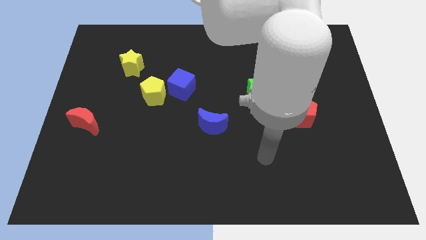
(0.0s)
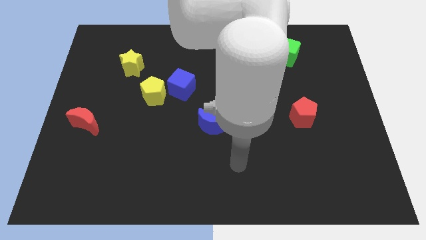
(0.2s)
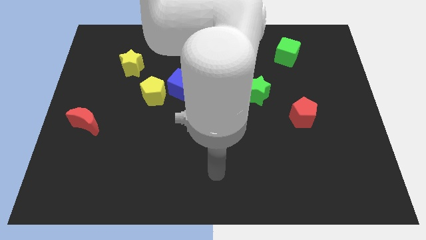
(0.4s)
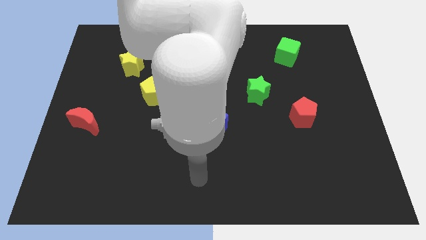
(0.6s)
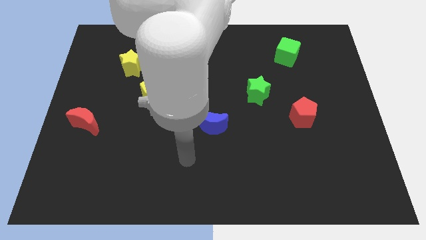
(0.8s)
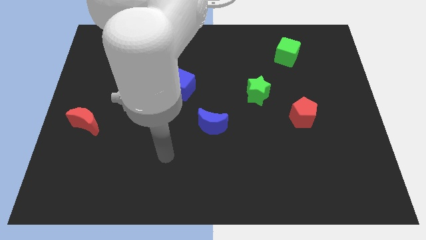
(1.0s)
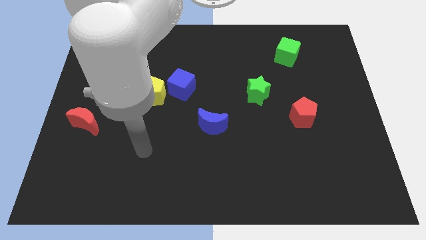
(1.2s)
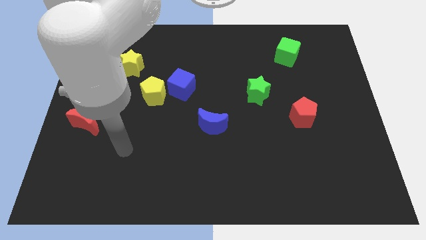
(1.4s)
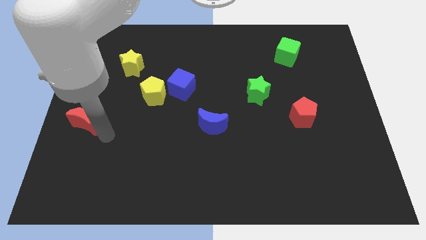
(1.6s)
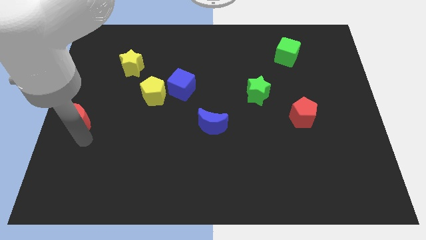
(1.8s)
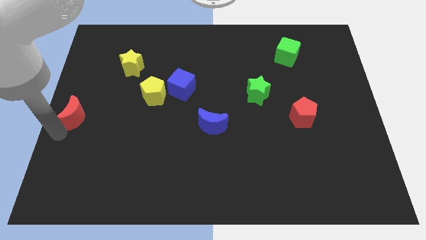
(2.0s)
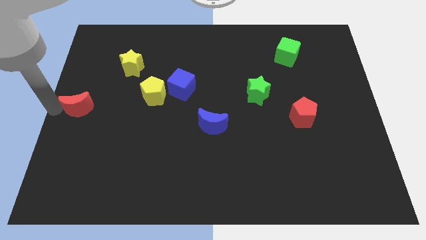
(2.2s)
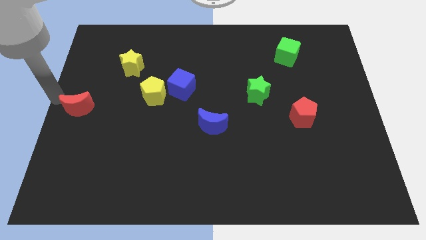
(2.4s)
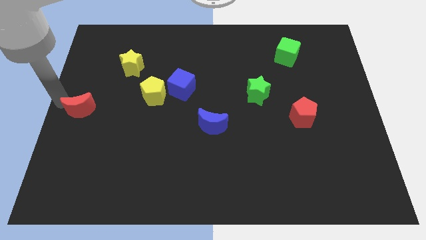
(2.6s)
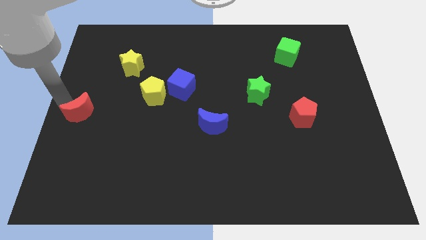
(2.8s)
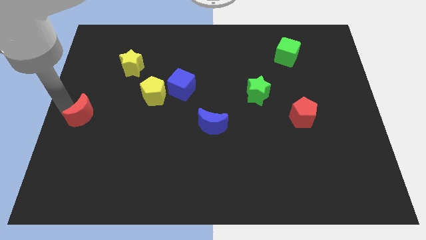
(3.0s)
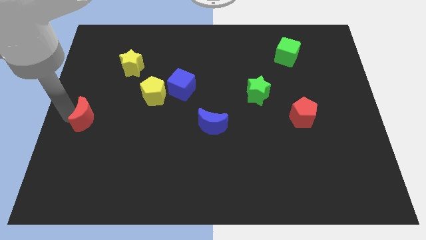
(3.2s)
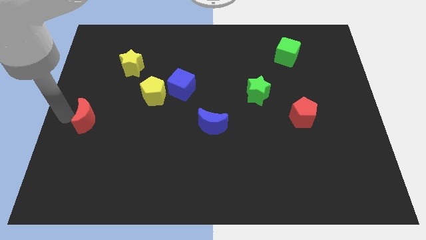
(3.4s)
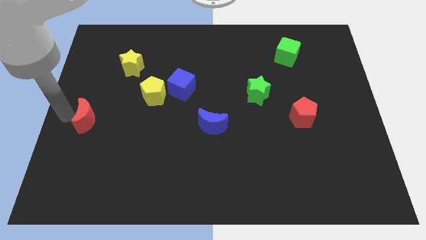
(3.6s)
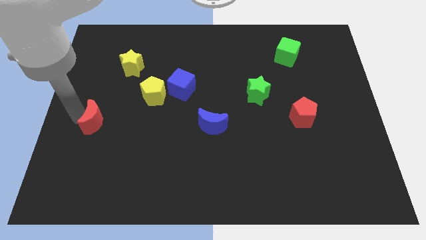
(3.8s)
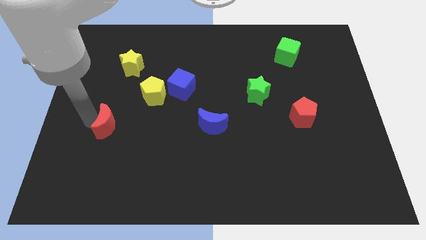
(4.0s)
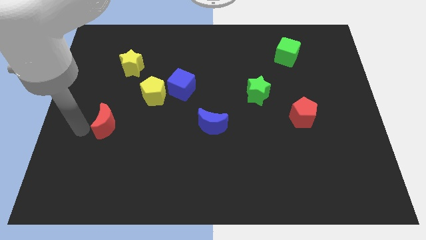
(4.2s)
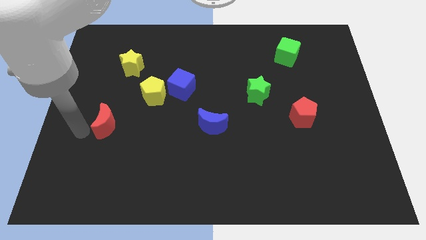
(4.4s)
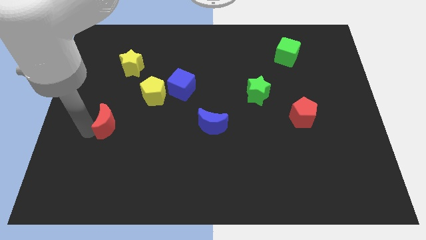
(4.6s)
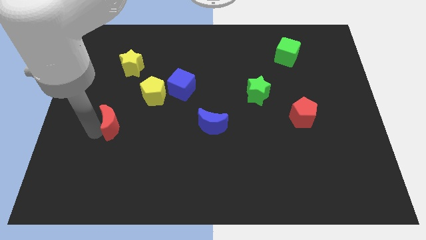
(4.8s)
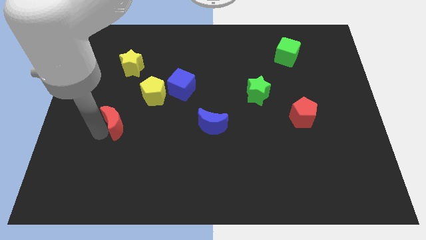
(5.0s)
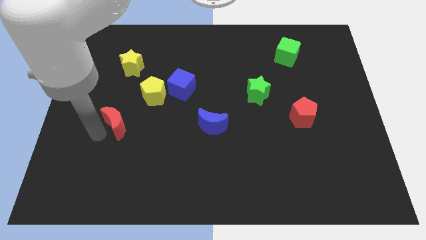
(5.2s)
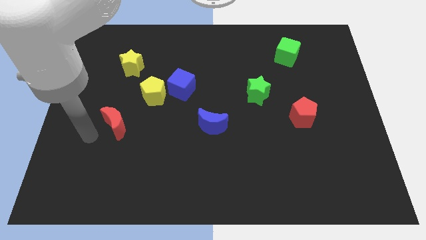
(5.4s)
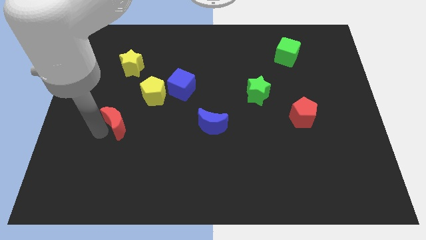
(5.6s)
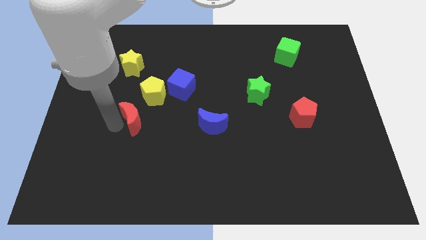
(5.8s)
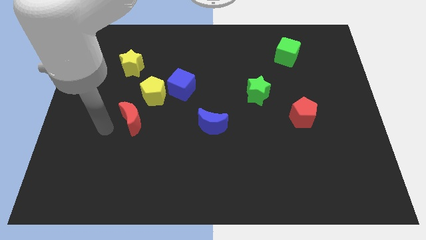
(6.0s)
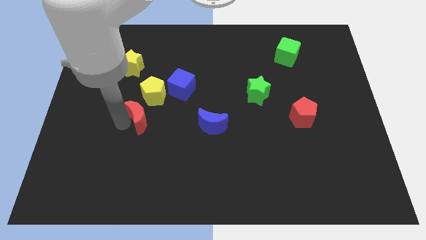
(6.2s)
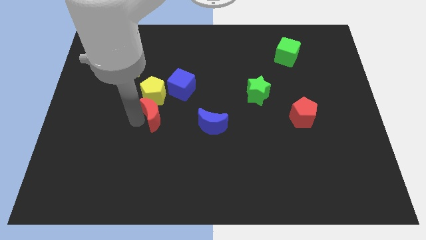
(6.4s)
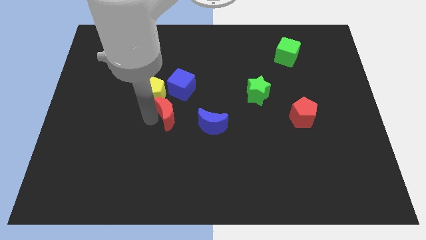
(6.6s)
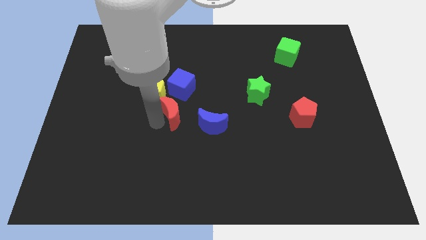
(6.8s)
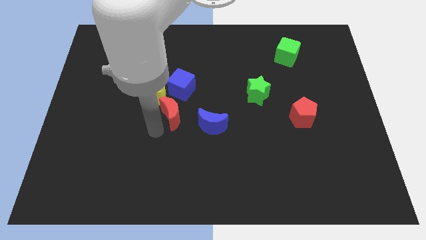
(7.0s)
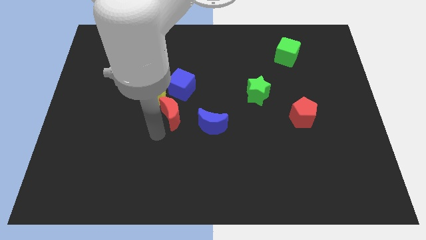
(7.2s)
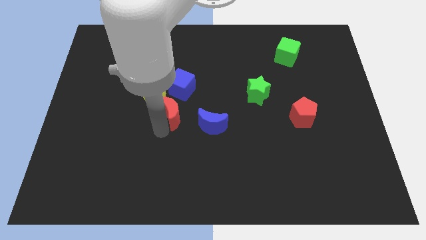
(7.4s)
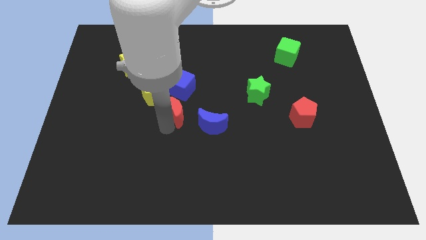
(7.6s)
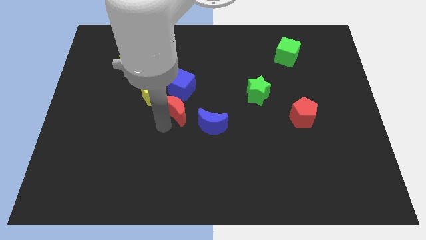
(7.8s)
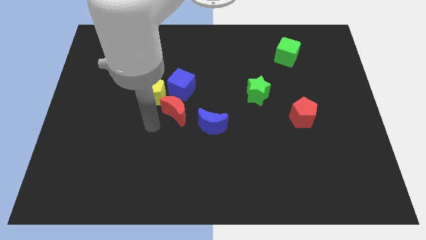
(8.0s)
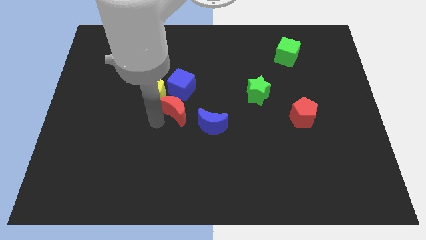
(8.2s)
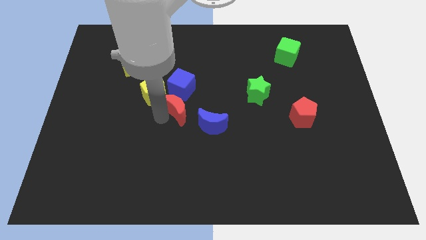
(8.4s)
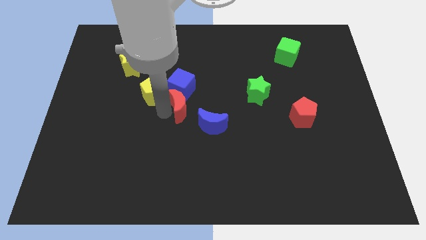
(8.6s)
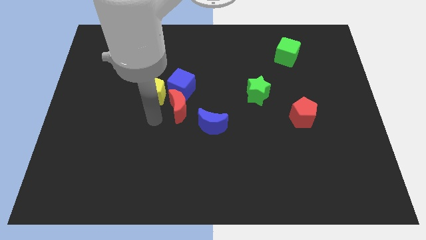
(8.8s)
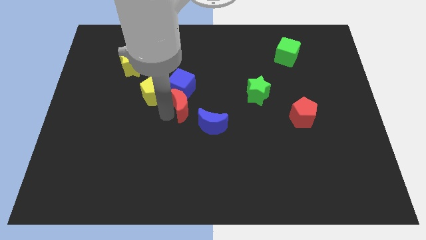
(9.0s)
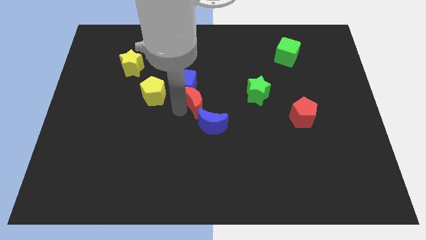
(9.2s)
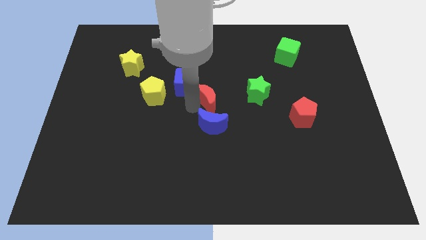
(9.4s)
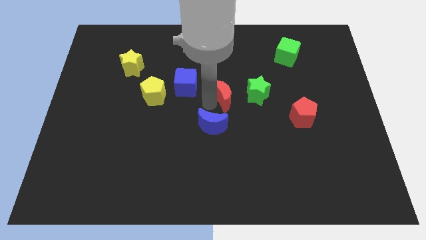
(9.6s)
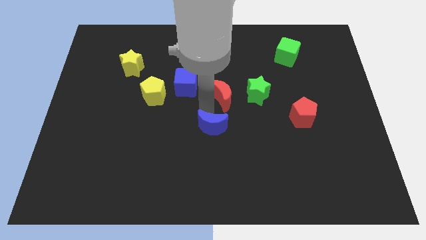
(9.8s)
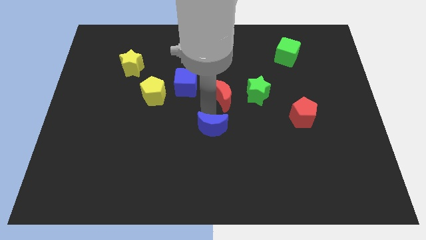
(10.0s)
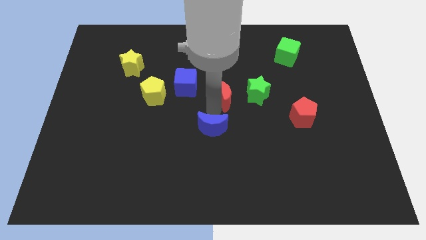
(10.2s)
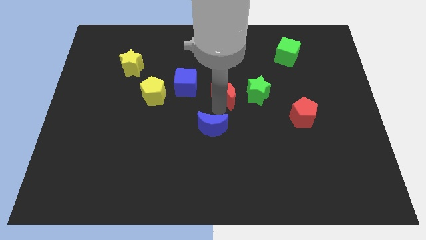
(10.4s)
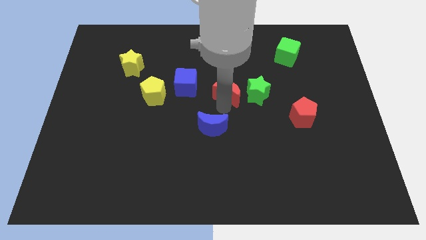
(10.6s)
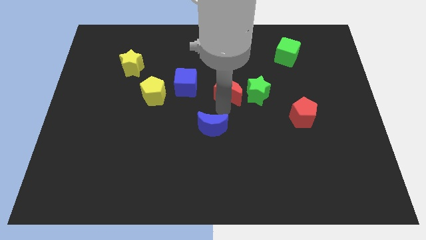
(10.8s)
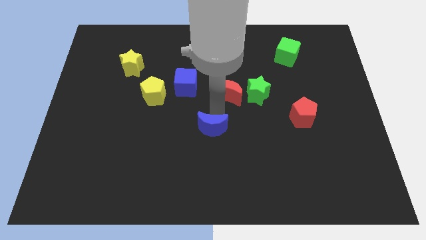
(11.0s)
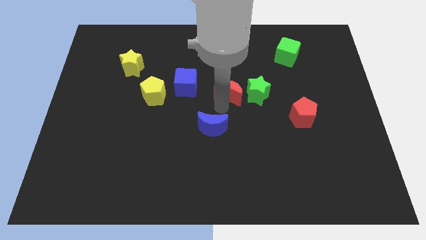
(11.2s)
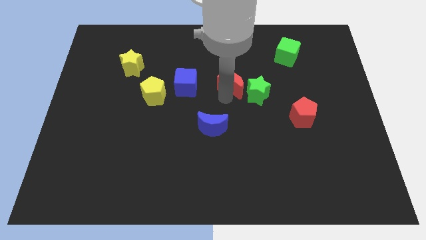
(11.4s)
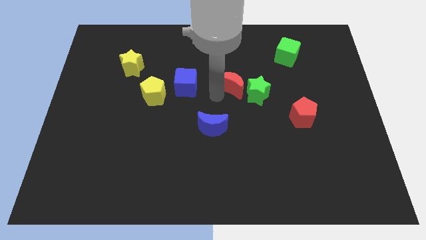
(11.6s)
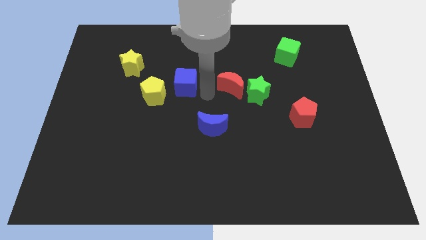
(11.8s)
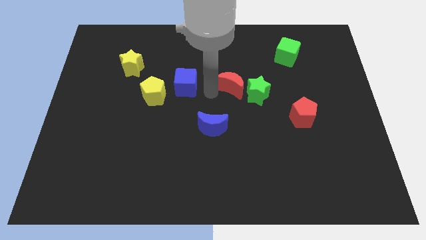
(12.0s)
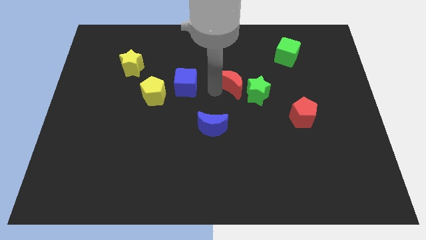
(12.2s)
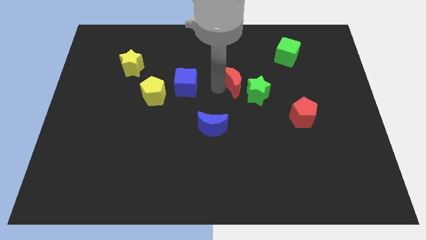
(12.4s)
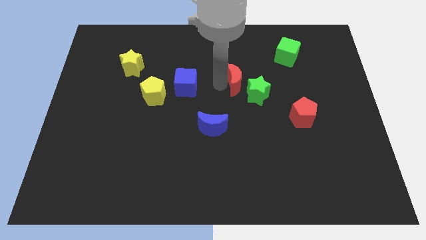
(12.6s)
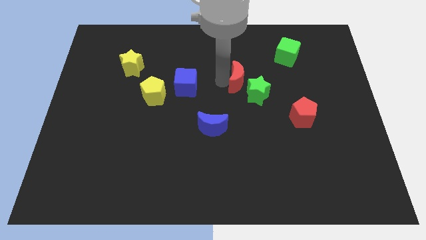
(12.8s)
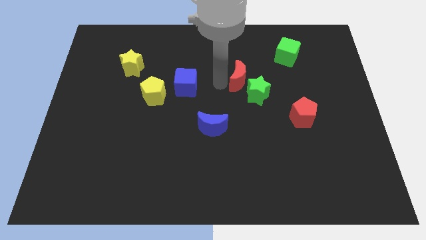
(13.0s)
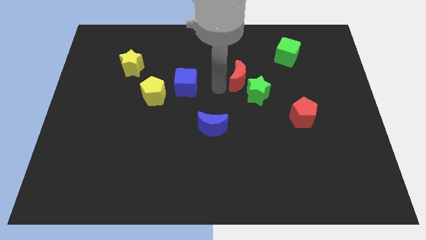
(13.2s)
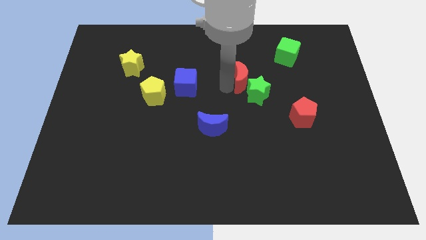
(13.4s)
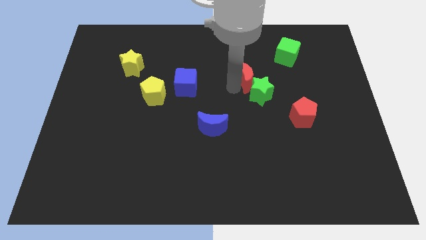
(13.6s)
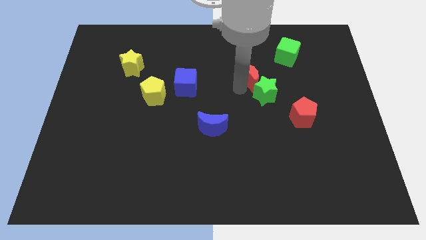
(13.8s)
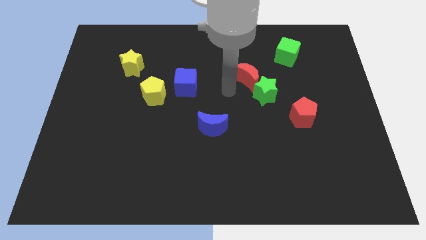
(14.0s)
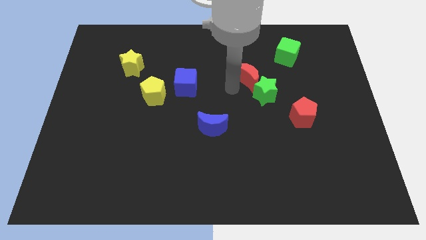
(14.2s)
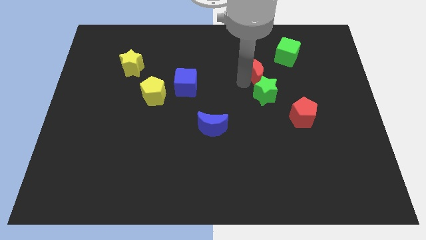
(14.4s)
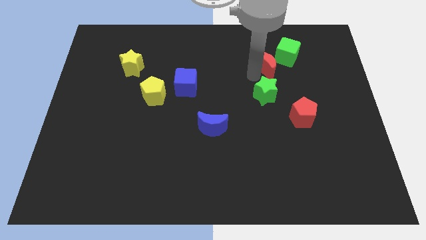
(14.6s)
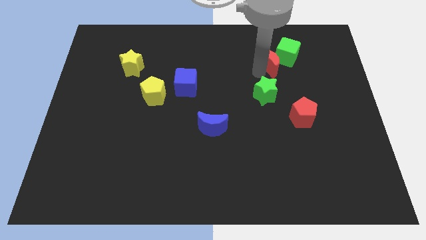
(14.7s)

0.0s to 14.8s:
move the red moon to the green cube

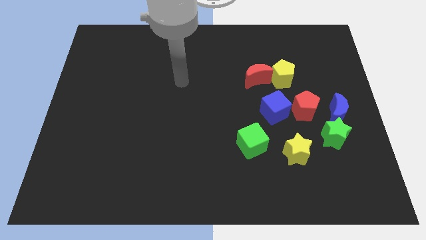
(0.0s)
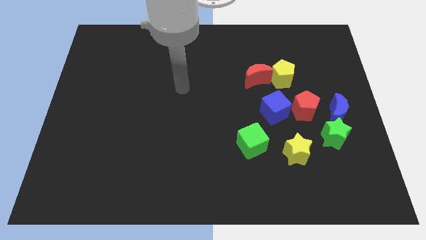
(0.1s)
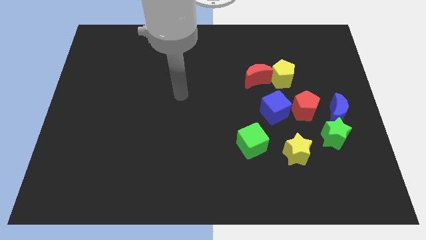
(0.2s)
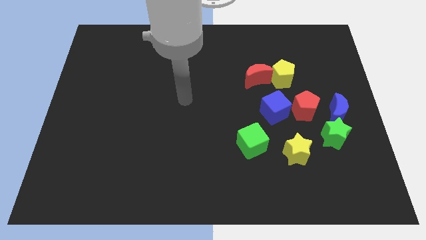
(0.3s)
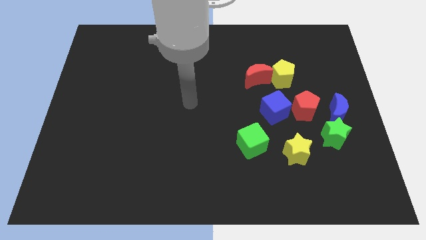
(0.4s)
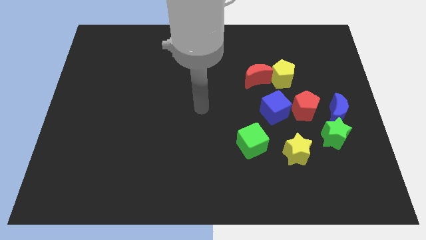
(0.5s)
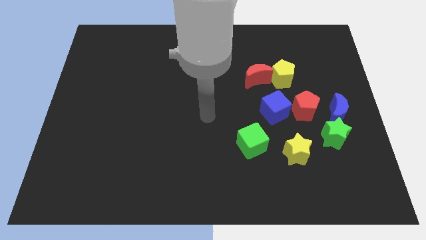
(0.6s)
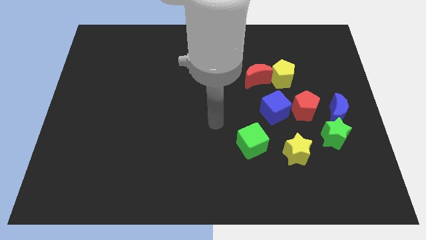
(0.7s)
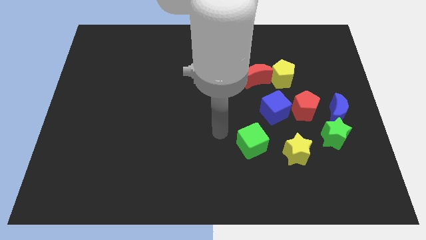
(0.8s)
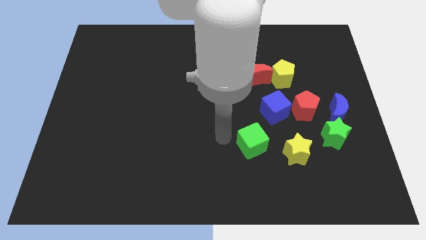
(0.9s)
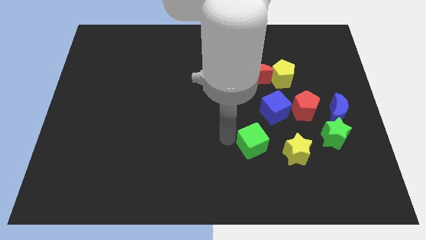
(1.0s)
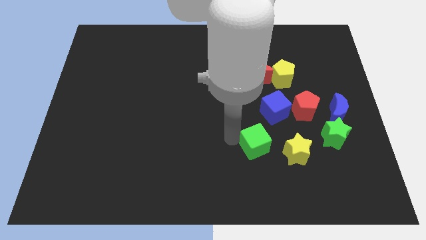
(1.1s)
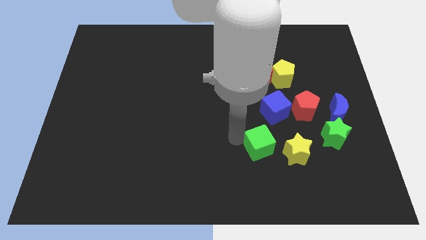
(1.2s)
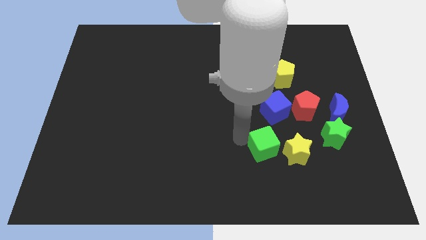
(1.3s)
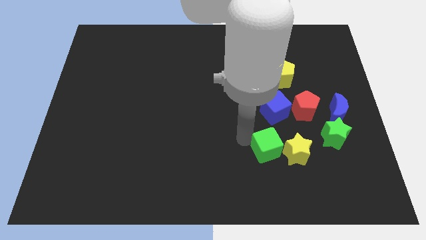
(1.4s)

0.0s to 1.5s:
slide the green cube close to the yellow star
